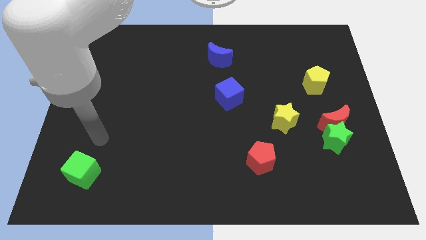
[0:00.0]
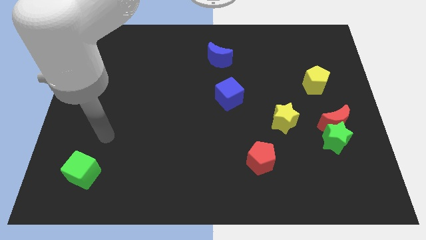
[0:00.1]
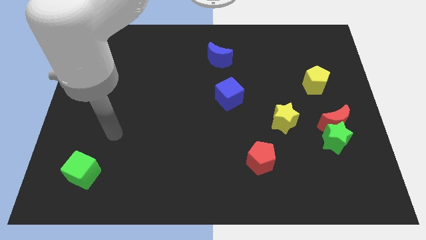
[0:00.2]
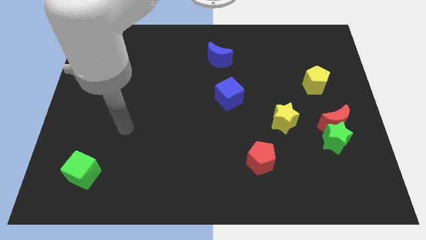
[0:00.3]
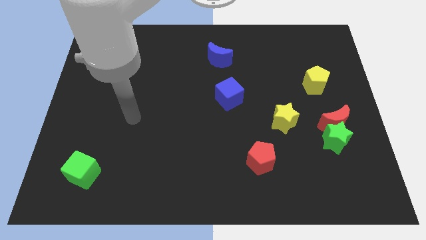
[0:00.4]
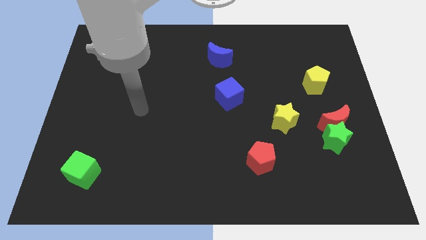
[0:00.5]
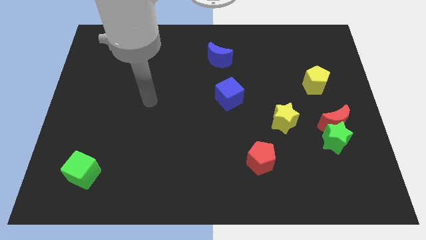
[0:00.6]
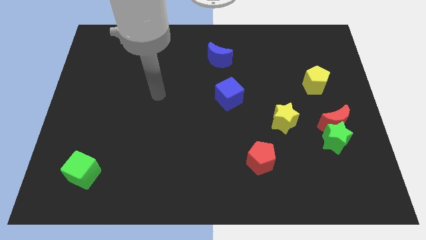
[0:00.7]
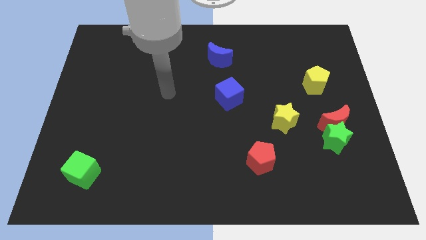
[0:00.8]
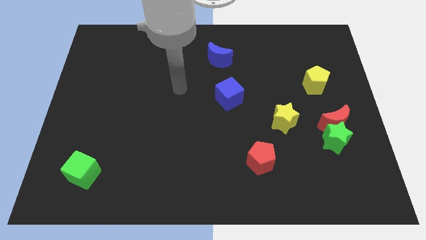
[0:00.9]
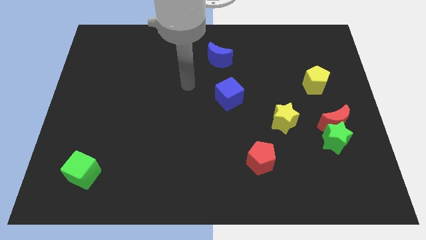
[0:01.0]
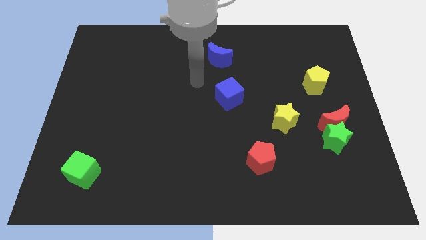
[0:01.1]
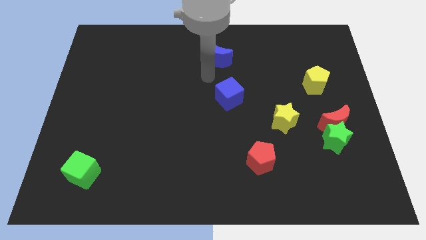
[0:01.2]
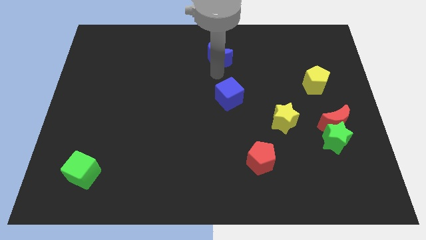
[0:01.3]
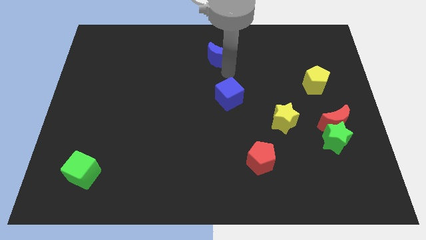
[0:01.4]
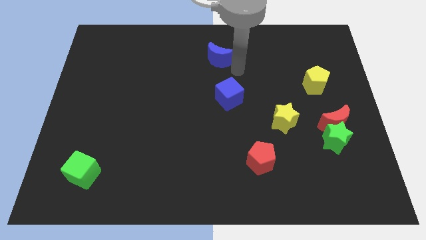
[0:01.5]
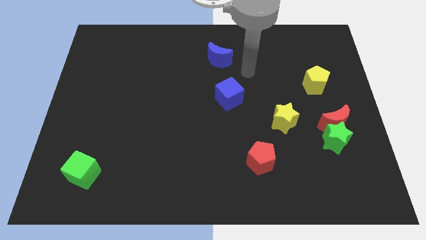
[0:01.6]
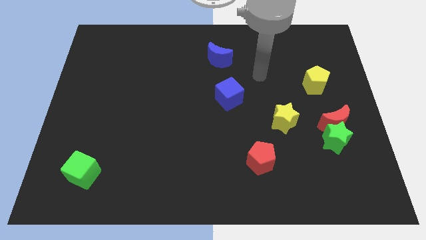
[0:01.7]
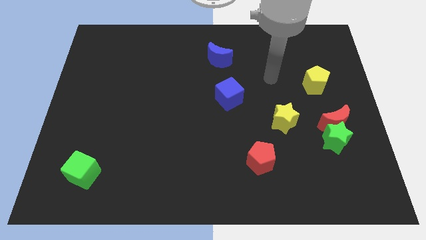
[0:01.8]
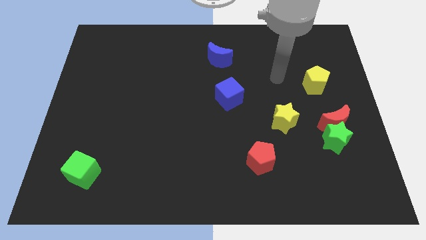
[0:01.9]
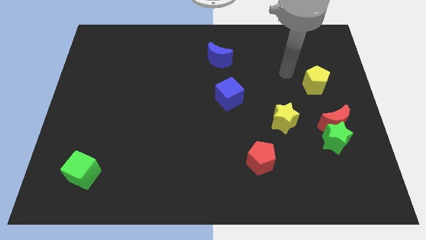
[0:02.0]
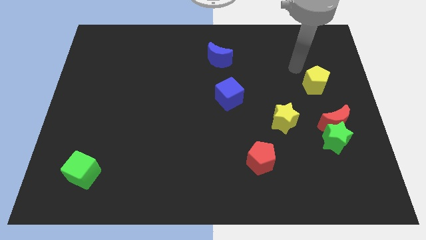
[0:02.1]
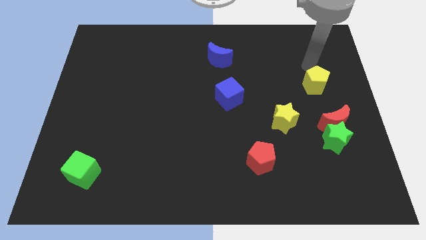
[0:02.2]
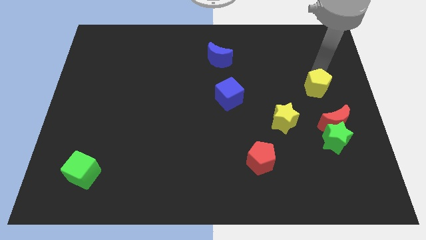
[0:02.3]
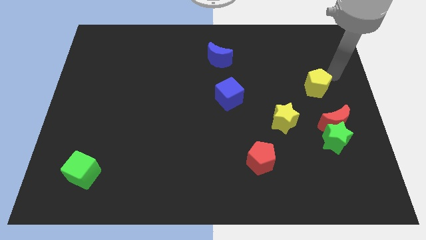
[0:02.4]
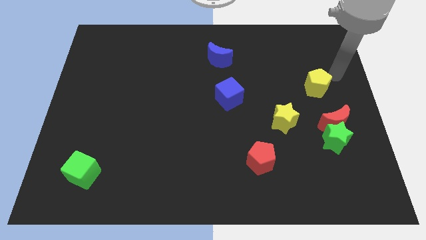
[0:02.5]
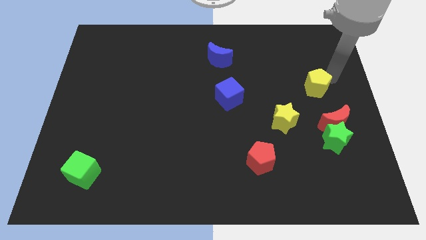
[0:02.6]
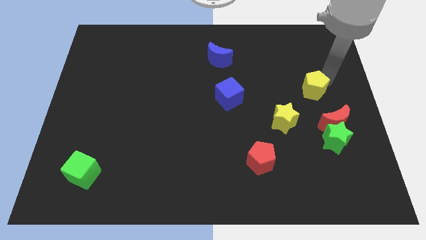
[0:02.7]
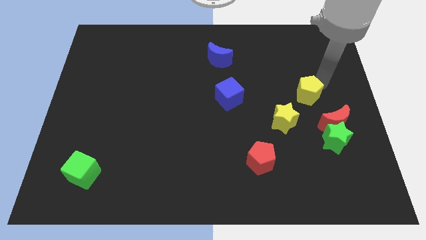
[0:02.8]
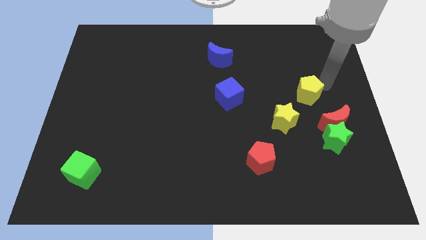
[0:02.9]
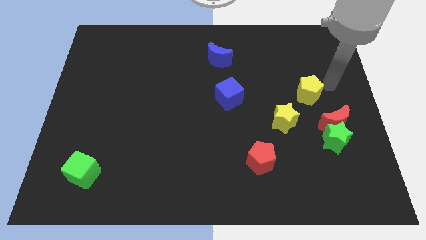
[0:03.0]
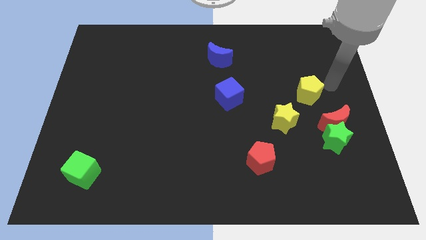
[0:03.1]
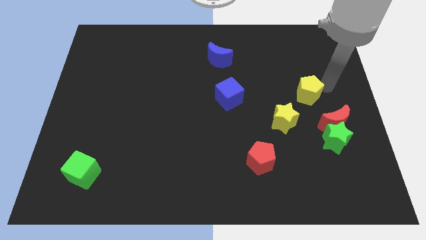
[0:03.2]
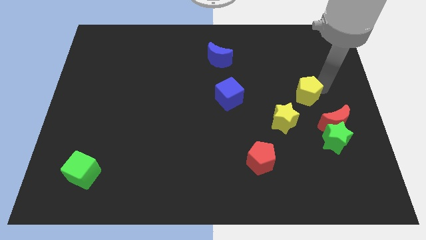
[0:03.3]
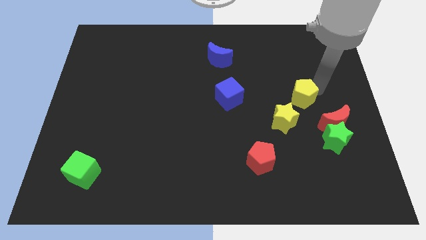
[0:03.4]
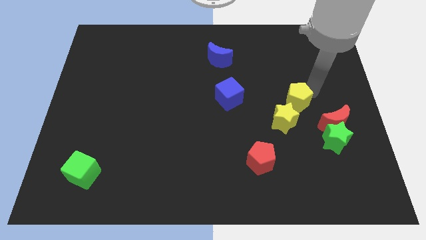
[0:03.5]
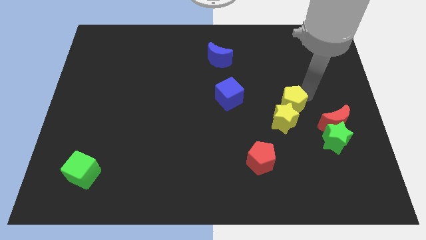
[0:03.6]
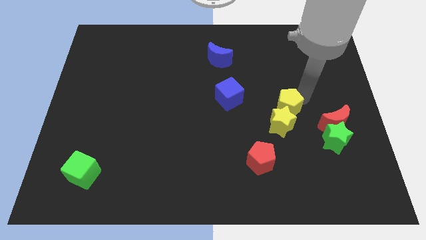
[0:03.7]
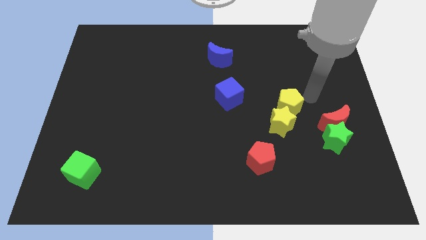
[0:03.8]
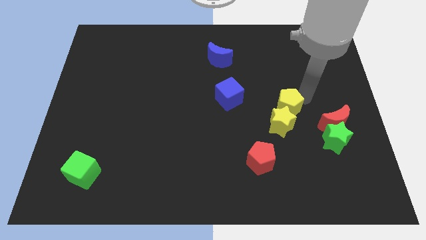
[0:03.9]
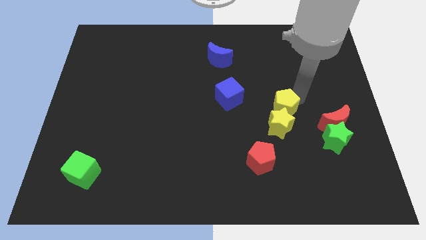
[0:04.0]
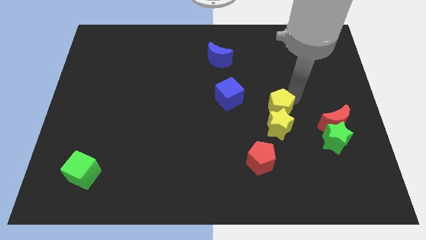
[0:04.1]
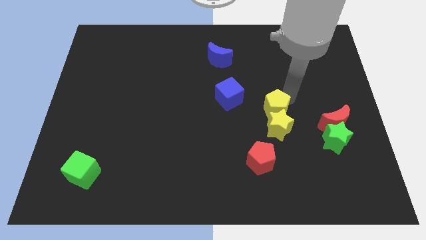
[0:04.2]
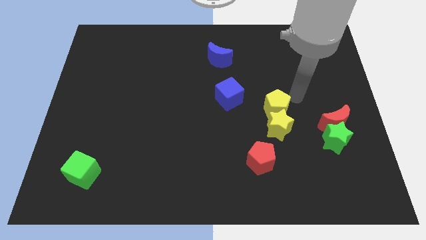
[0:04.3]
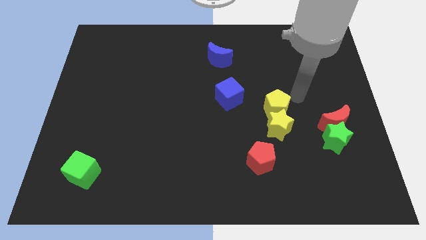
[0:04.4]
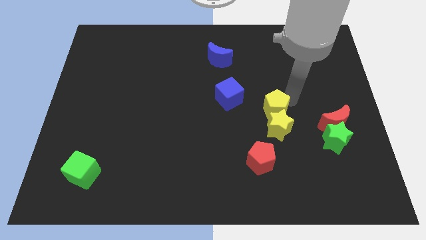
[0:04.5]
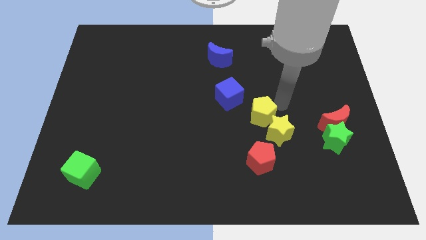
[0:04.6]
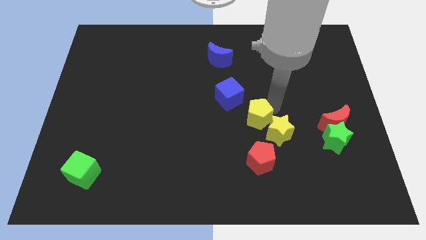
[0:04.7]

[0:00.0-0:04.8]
push the yellow pentagon to the left side of the yellow star

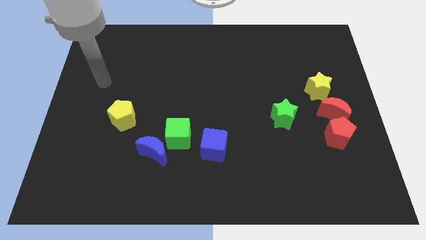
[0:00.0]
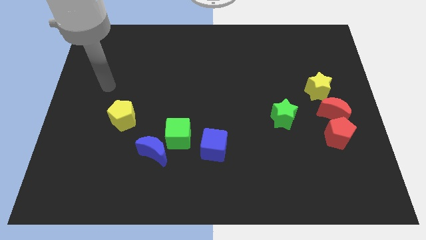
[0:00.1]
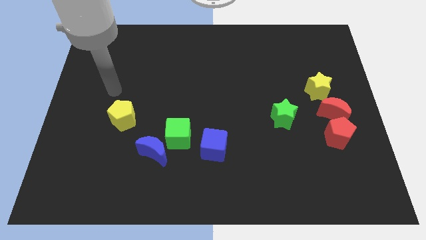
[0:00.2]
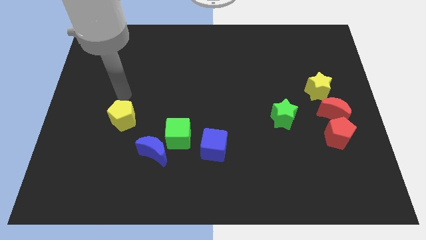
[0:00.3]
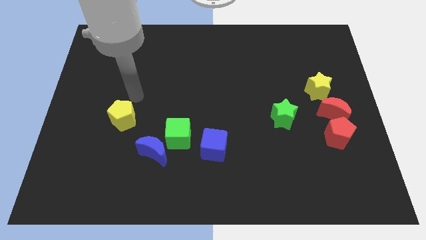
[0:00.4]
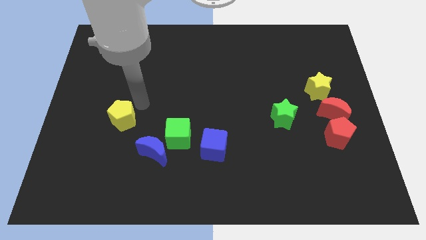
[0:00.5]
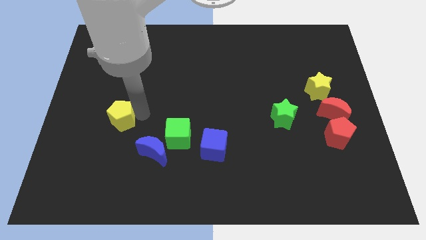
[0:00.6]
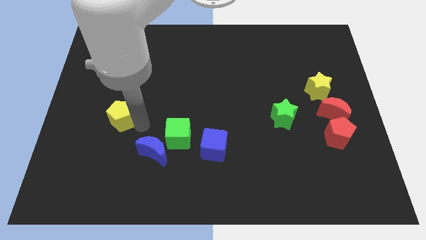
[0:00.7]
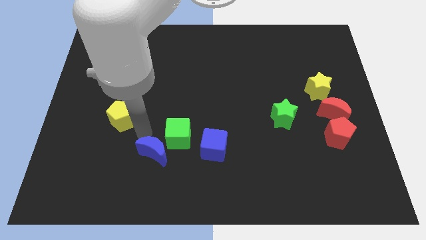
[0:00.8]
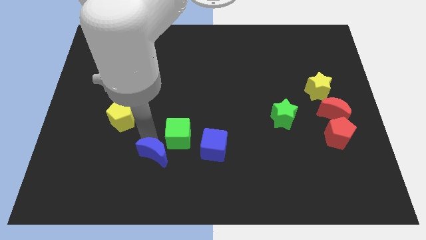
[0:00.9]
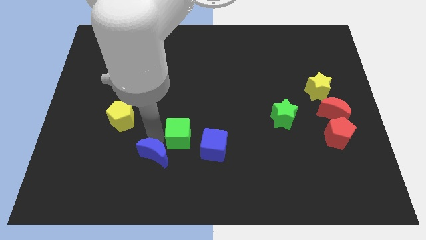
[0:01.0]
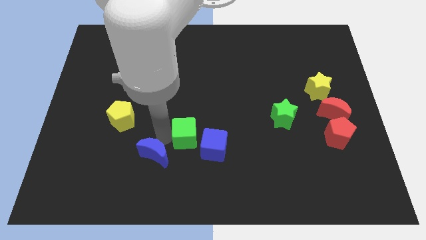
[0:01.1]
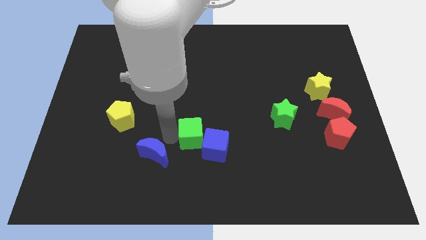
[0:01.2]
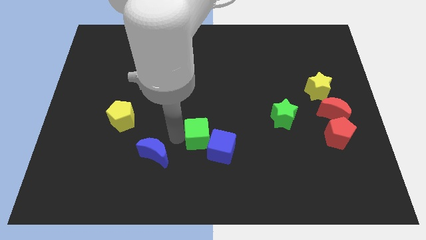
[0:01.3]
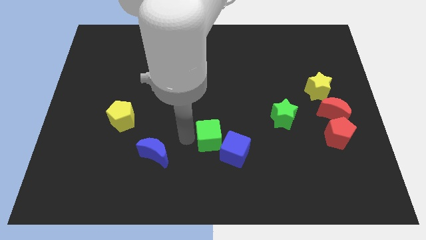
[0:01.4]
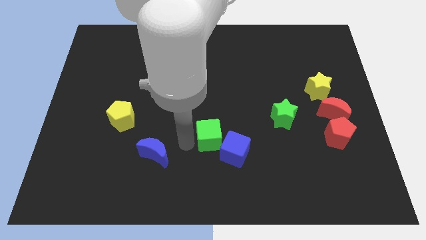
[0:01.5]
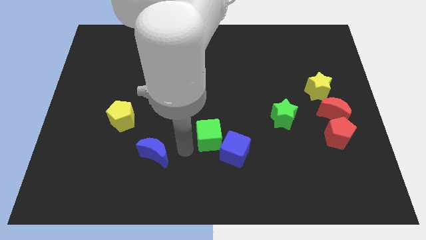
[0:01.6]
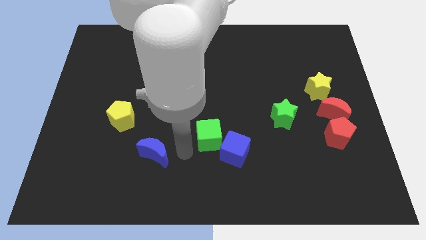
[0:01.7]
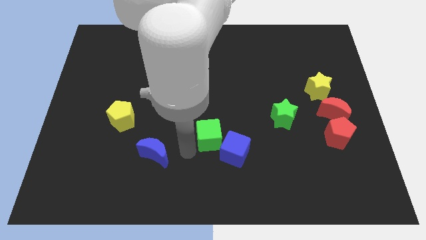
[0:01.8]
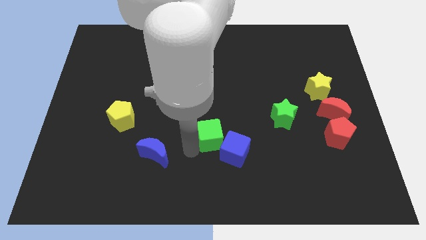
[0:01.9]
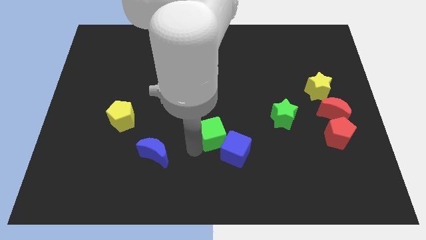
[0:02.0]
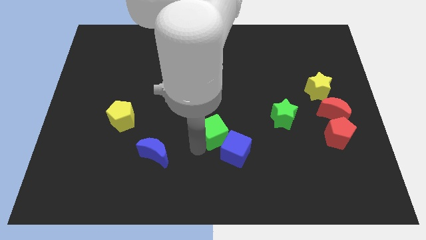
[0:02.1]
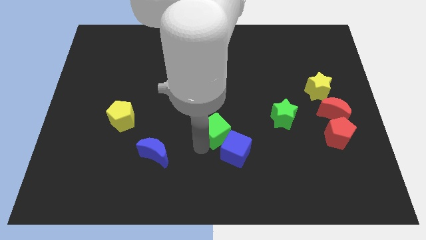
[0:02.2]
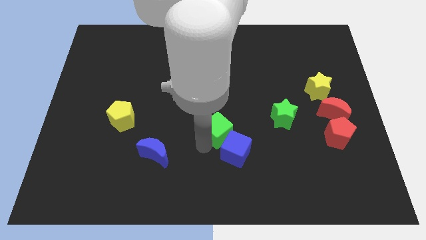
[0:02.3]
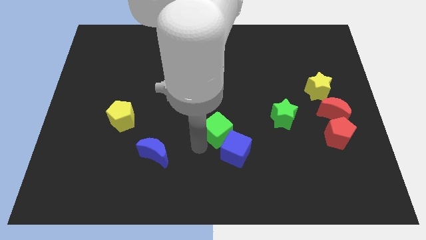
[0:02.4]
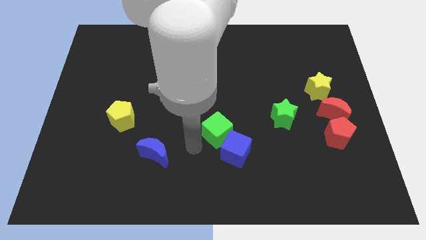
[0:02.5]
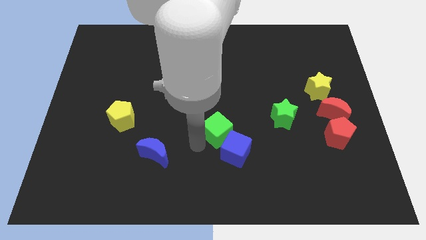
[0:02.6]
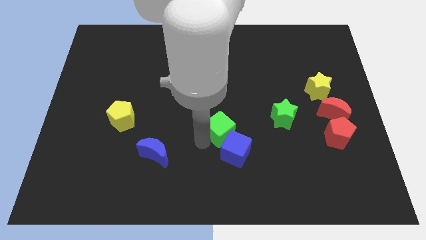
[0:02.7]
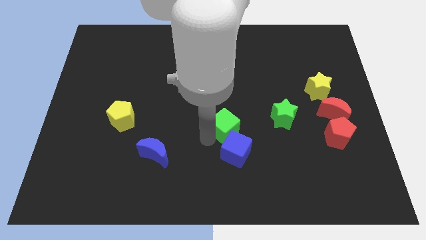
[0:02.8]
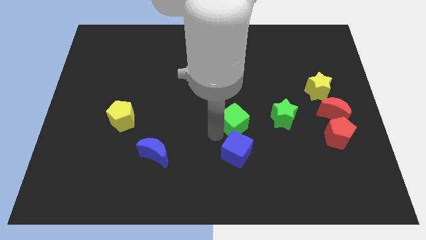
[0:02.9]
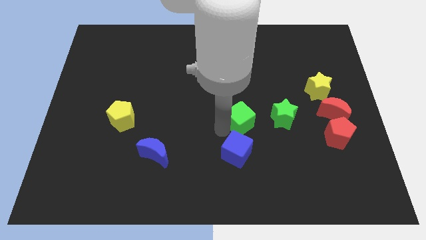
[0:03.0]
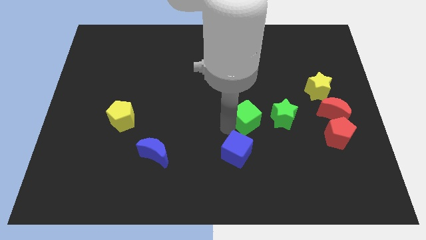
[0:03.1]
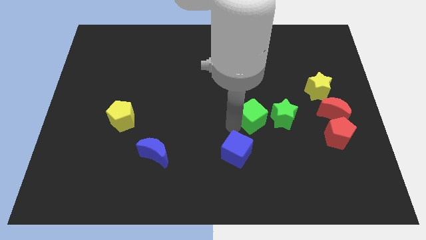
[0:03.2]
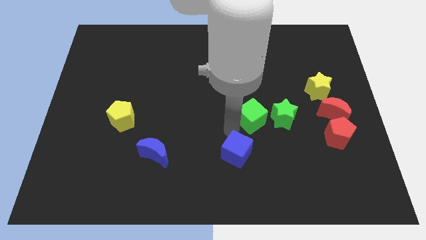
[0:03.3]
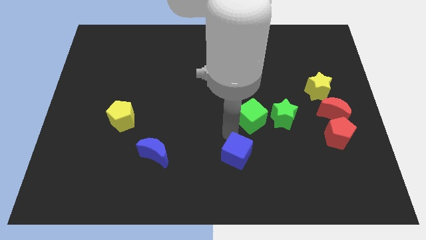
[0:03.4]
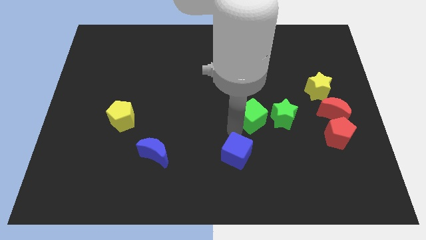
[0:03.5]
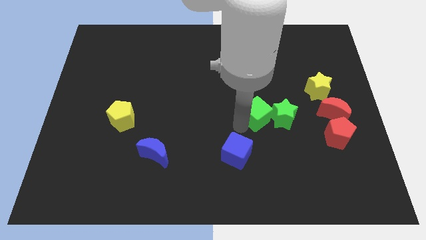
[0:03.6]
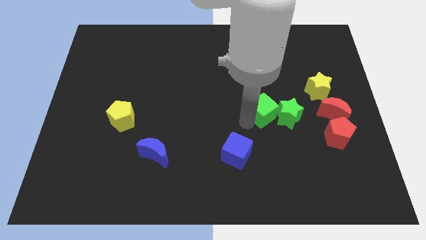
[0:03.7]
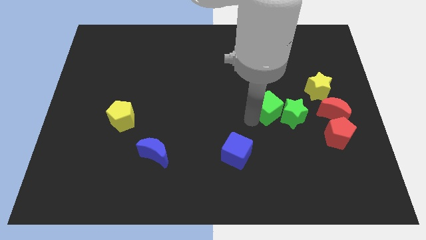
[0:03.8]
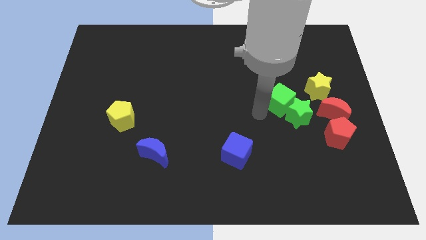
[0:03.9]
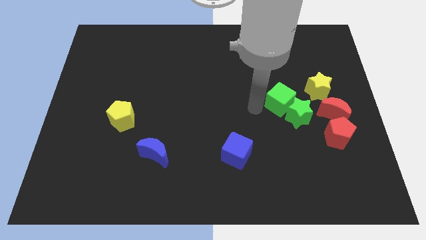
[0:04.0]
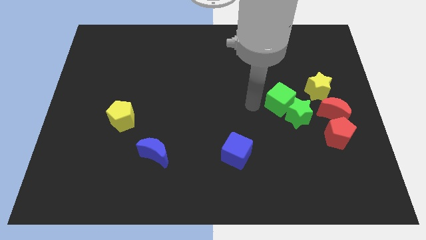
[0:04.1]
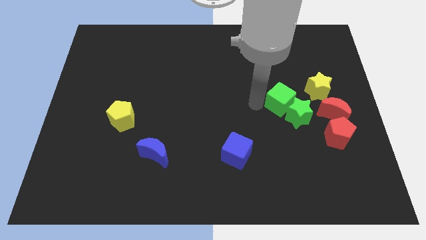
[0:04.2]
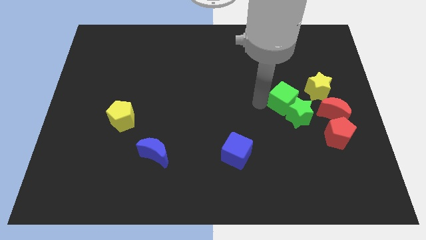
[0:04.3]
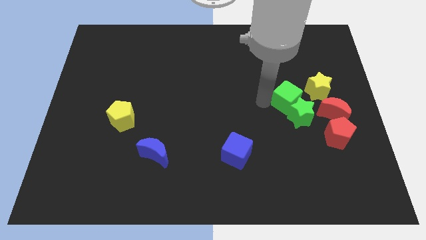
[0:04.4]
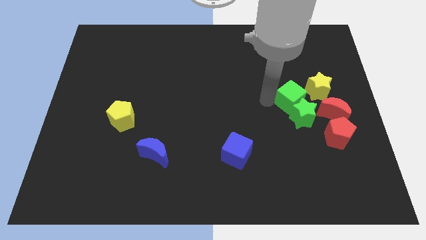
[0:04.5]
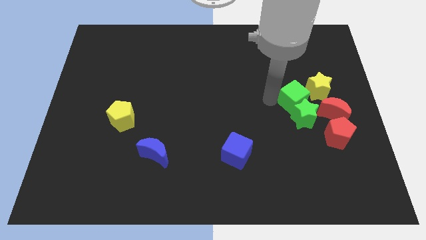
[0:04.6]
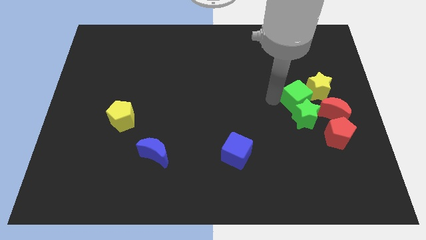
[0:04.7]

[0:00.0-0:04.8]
put the green cube diagonally up and to the right of the green star
